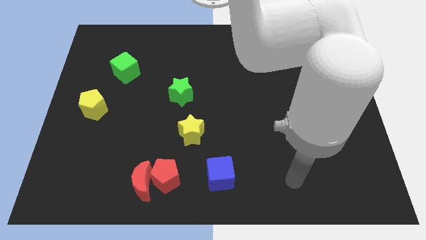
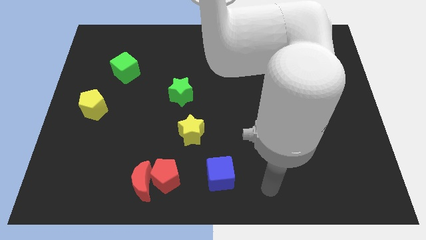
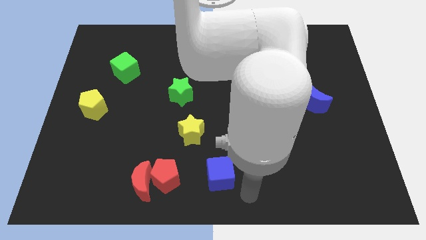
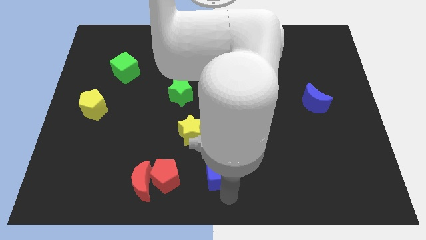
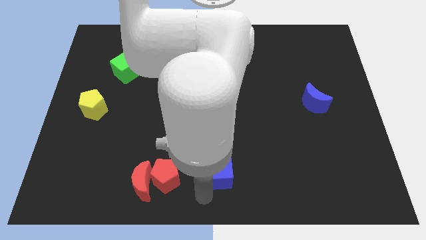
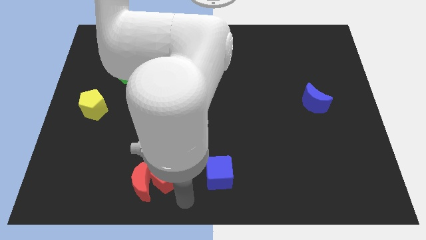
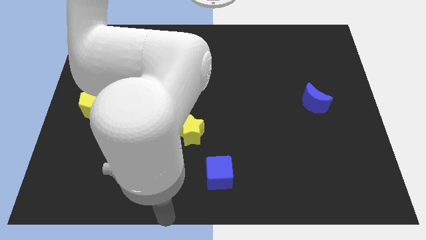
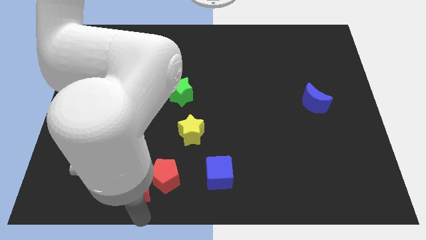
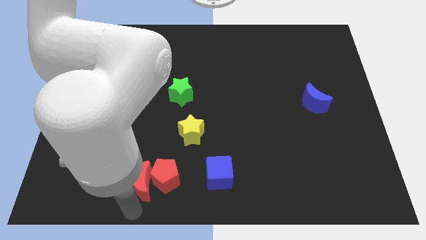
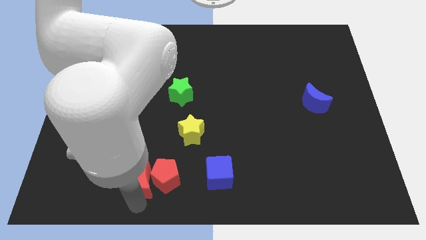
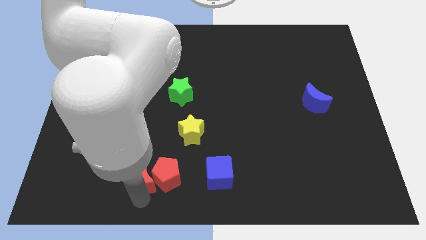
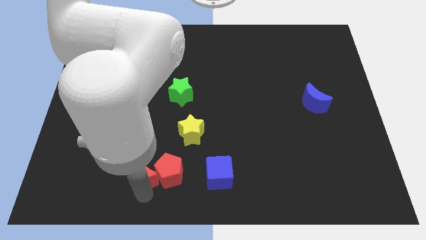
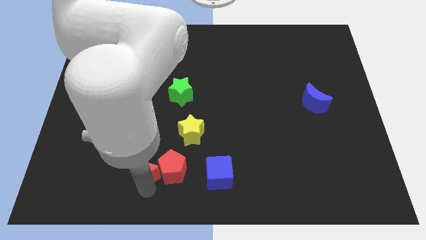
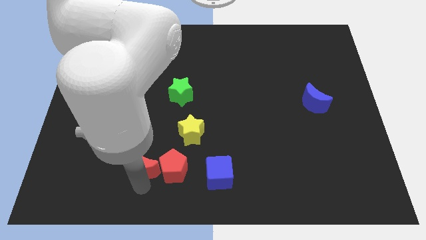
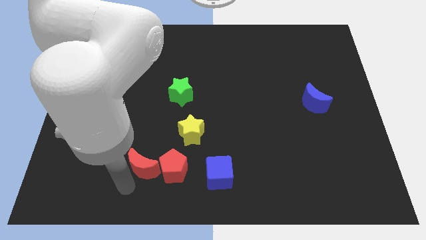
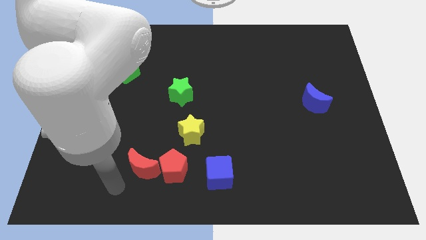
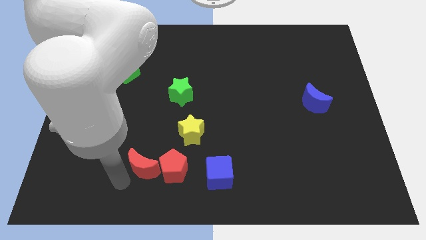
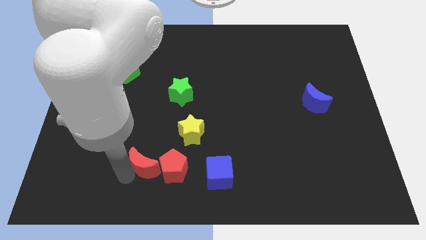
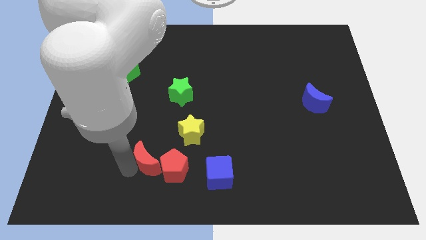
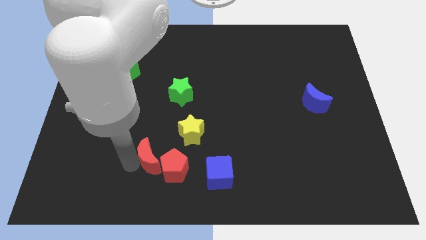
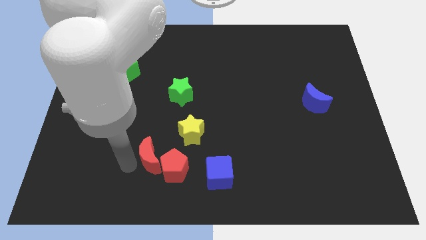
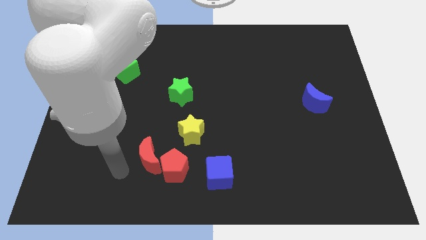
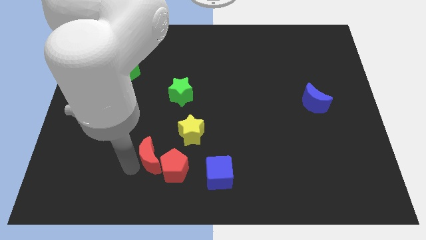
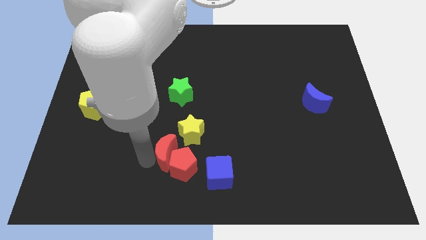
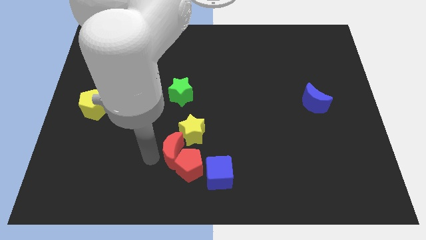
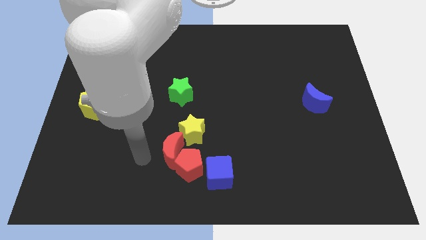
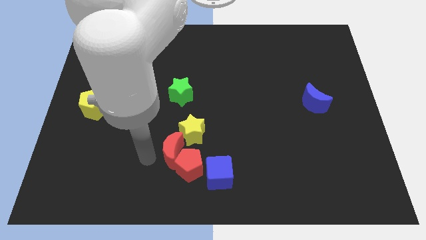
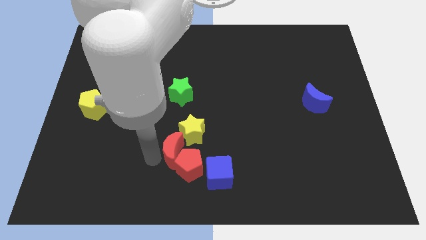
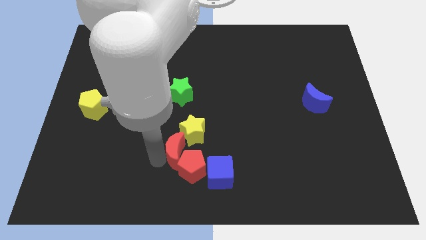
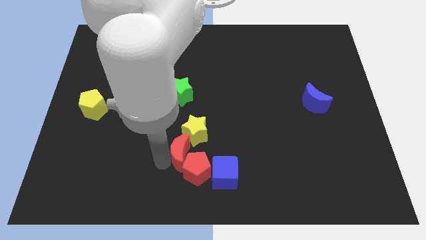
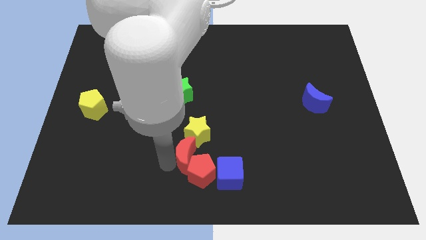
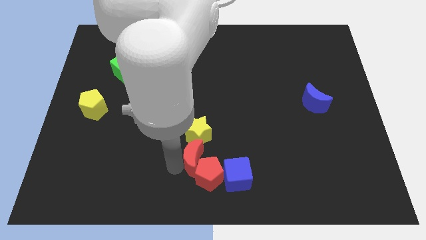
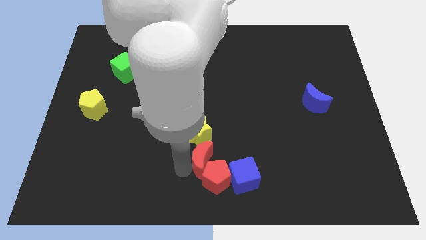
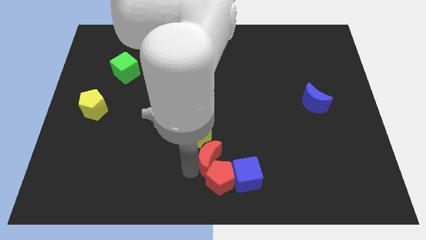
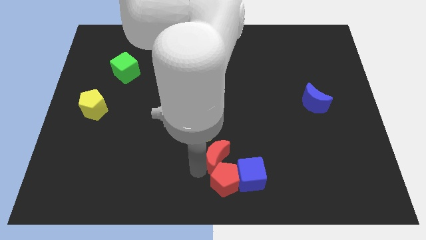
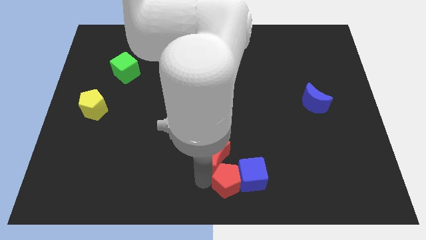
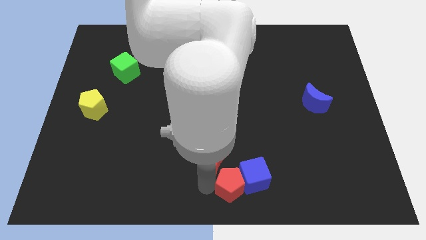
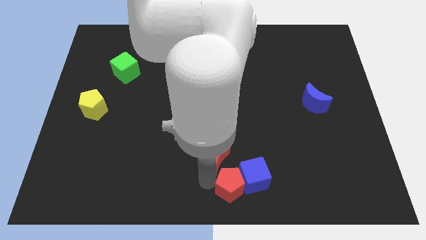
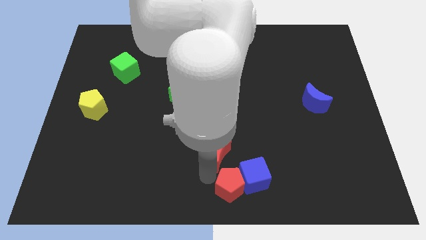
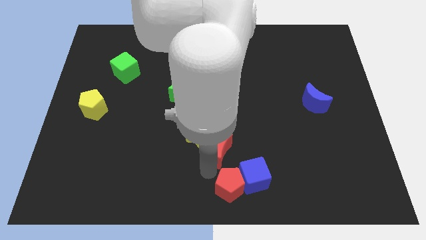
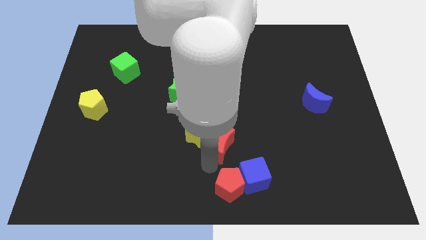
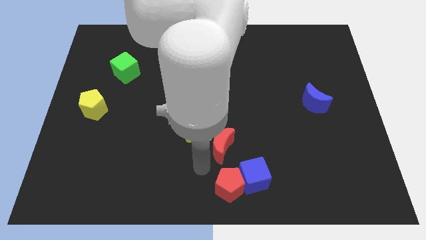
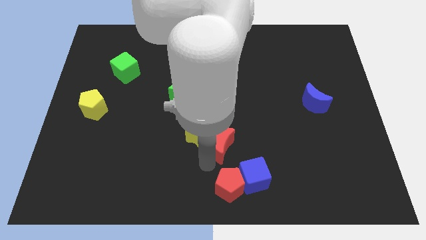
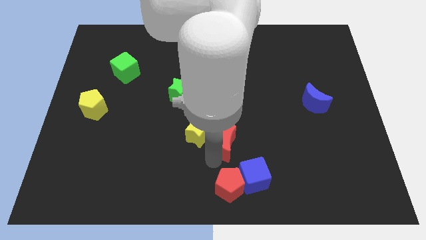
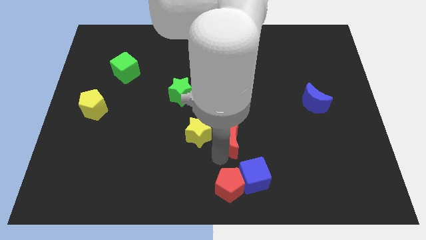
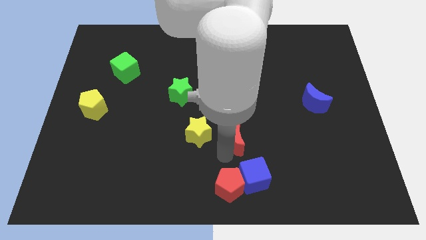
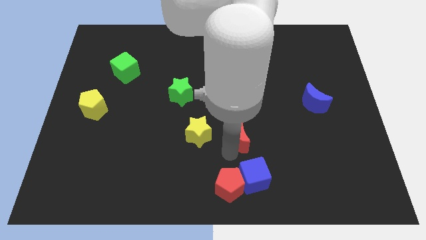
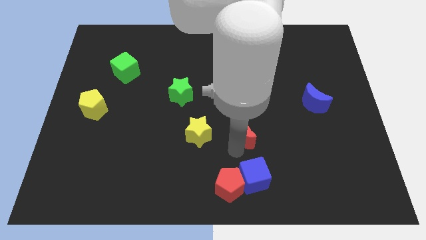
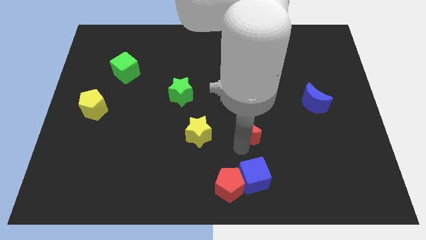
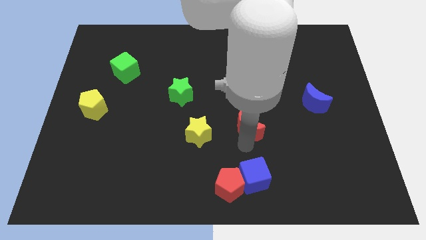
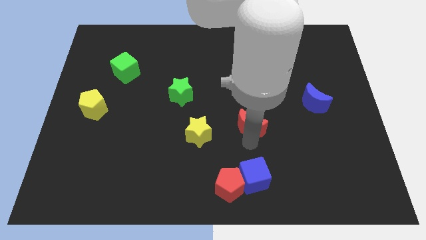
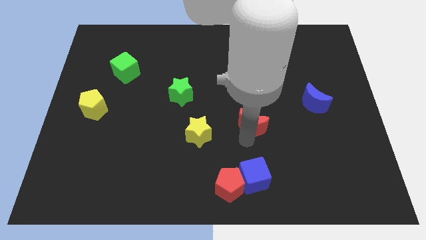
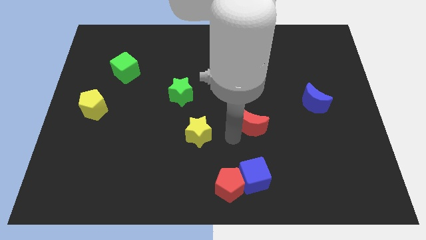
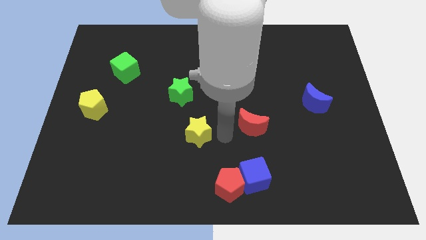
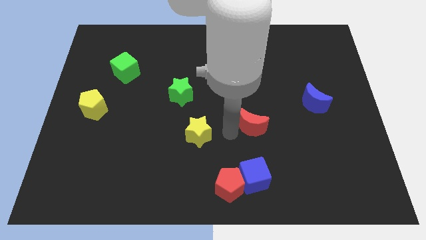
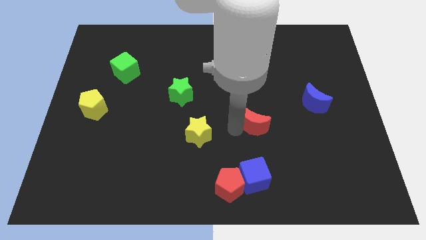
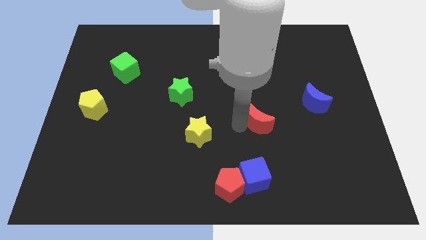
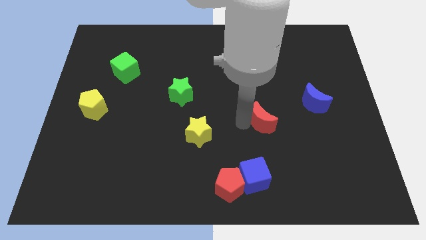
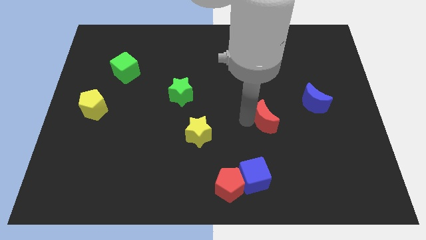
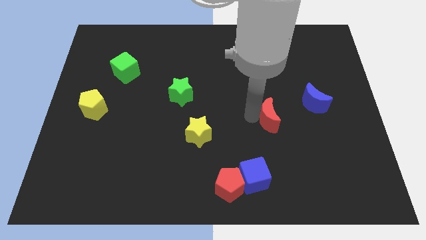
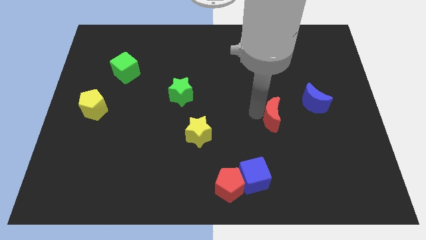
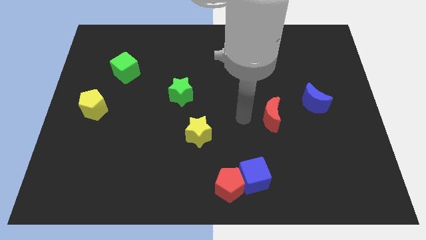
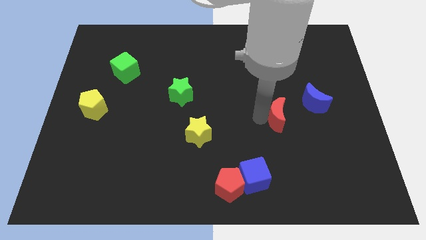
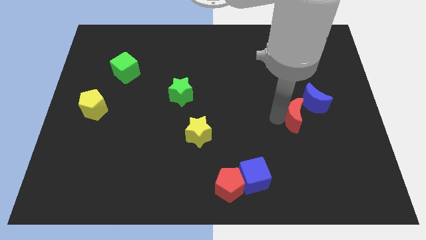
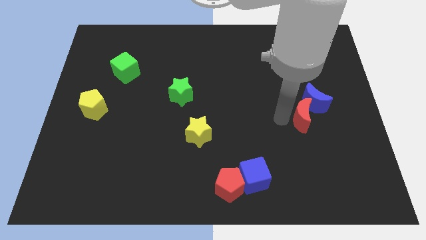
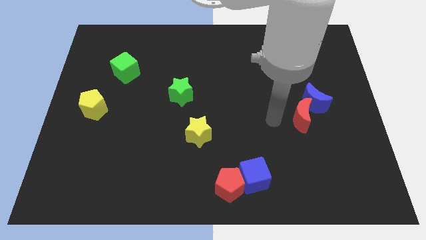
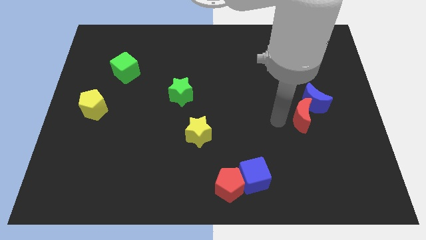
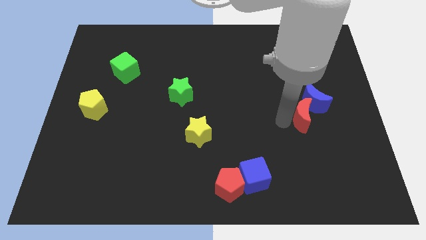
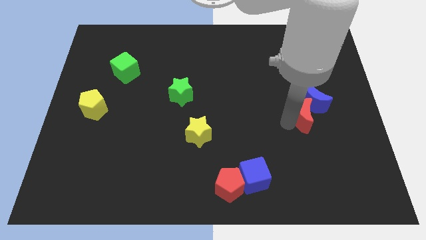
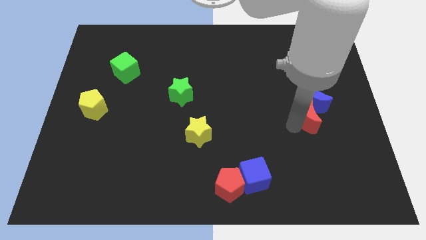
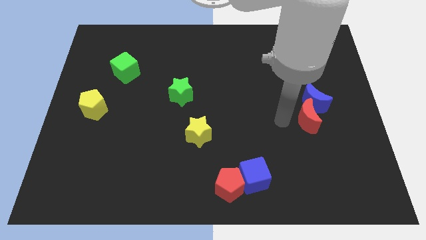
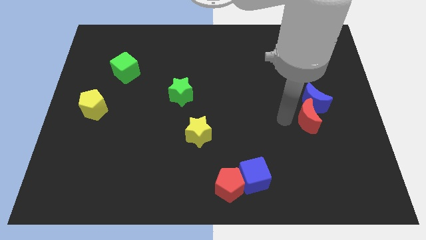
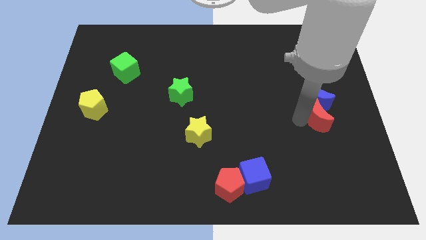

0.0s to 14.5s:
put the red moon to the bottom right side of the blue moon
